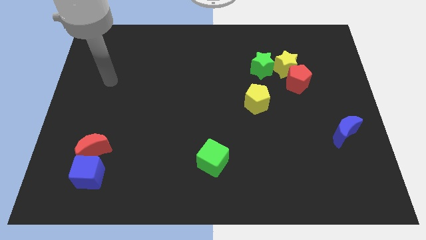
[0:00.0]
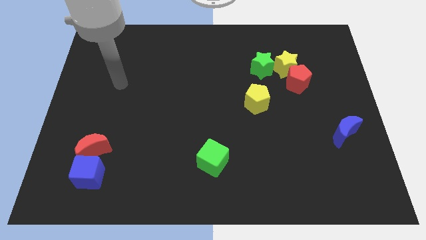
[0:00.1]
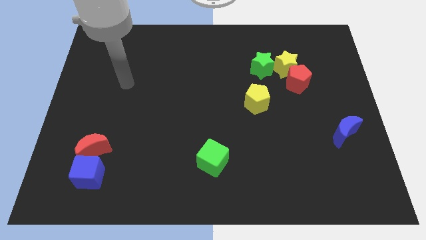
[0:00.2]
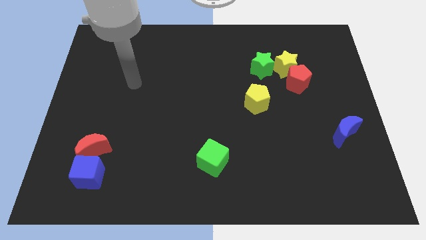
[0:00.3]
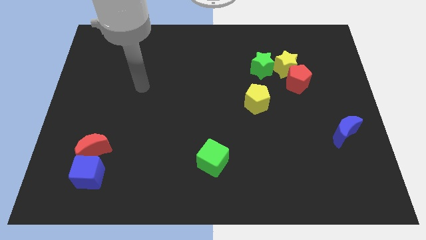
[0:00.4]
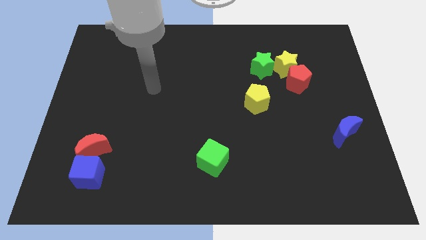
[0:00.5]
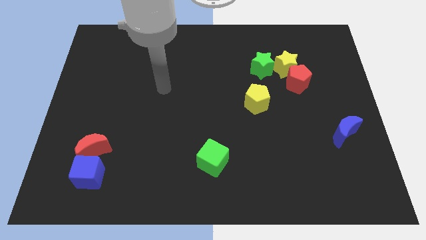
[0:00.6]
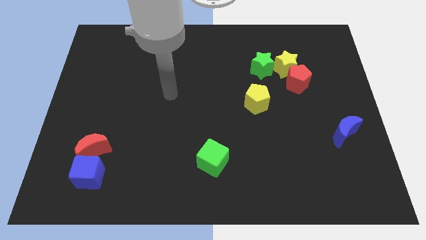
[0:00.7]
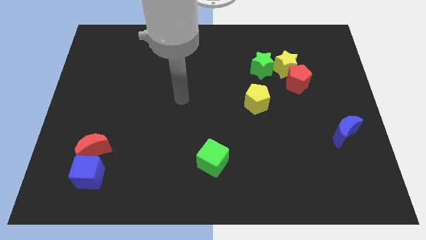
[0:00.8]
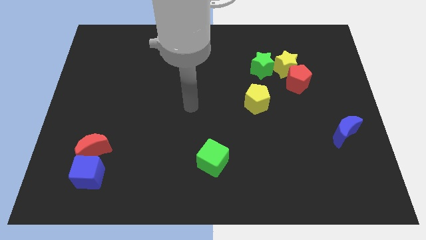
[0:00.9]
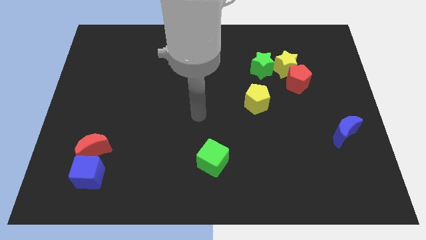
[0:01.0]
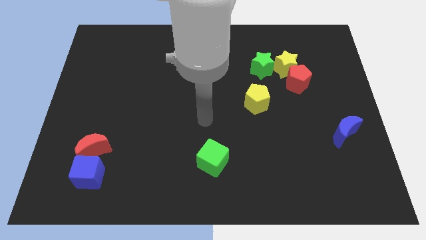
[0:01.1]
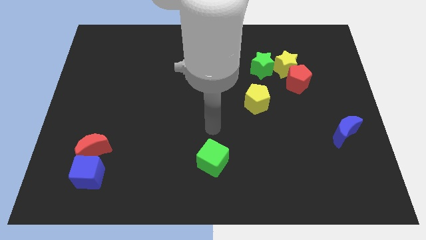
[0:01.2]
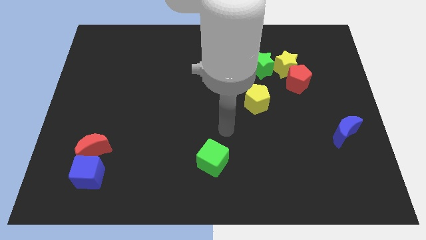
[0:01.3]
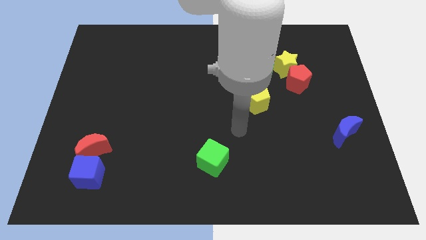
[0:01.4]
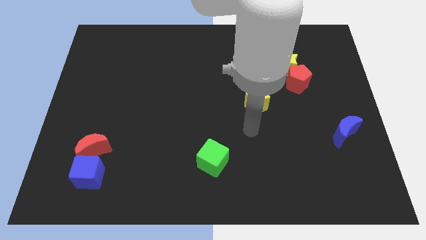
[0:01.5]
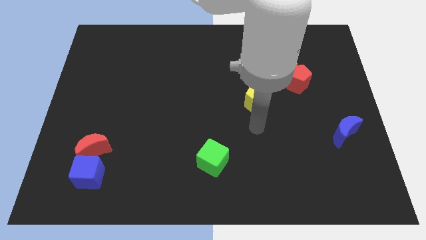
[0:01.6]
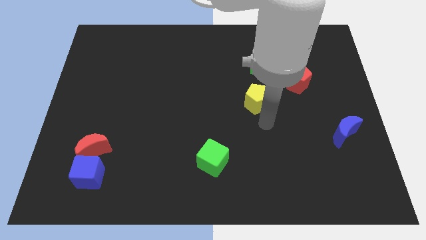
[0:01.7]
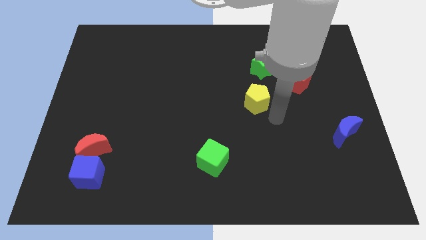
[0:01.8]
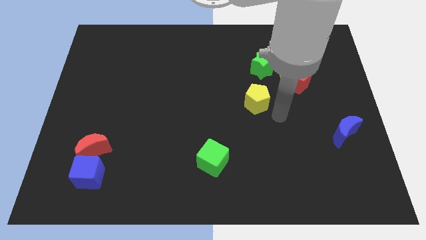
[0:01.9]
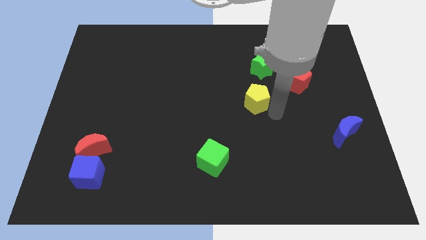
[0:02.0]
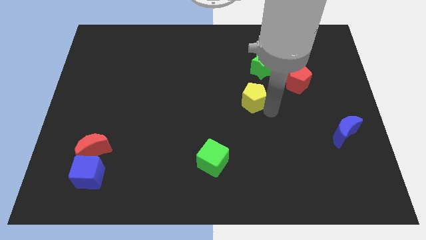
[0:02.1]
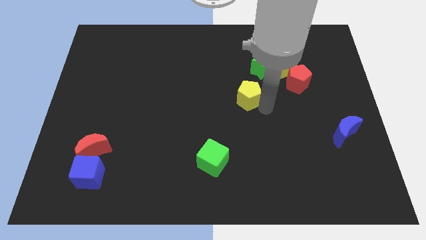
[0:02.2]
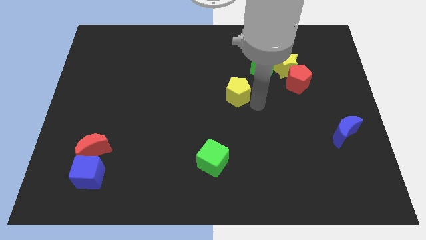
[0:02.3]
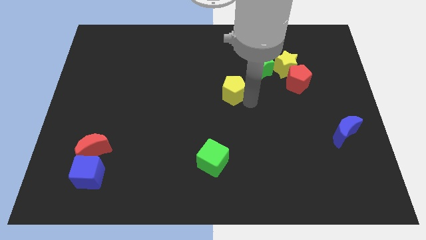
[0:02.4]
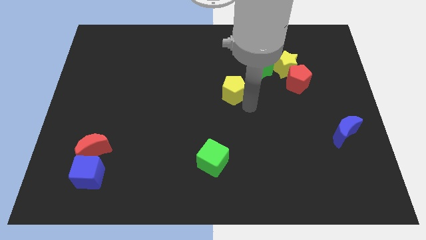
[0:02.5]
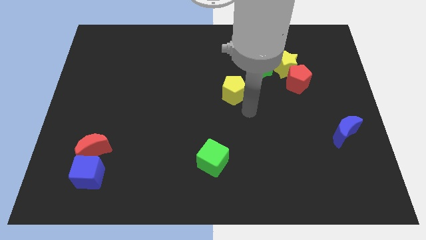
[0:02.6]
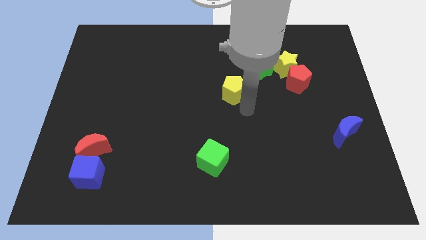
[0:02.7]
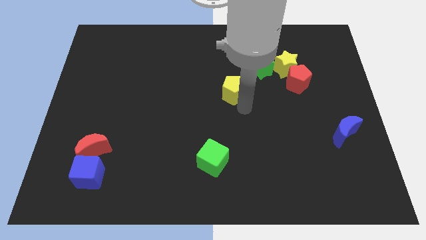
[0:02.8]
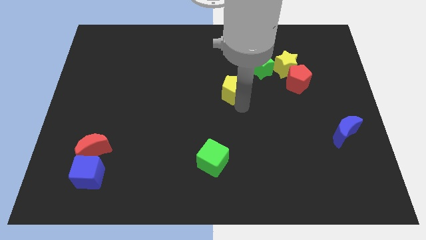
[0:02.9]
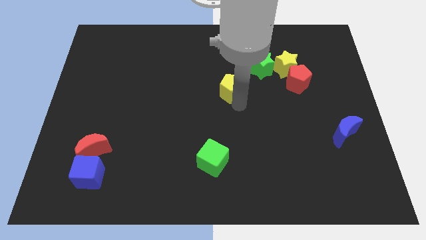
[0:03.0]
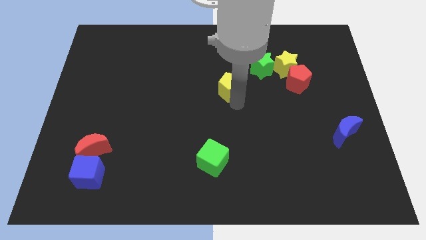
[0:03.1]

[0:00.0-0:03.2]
slightly move the yellow pentagon up and to the left

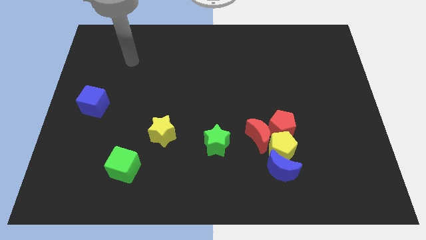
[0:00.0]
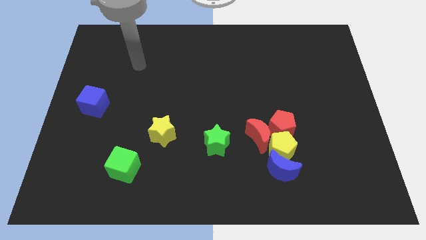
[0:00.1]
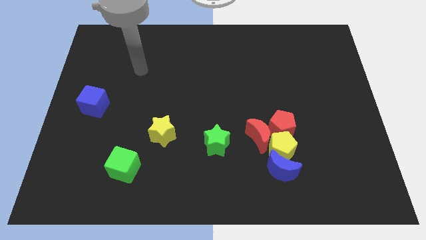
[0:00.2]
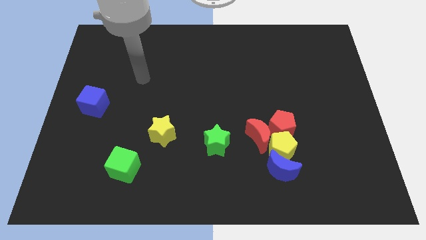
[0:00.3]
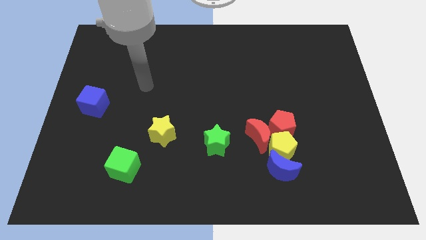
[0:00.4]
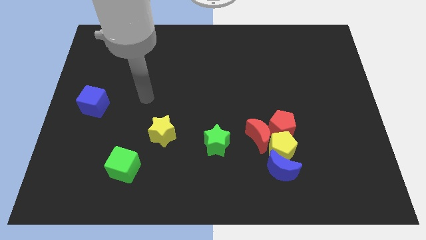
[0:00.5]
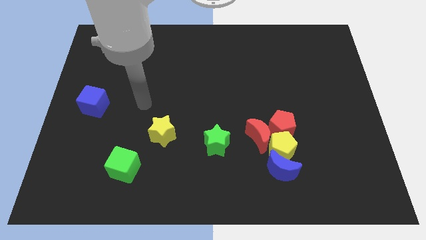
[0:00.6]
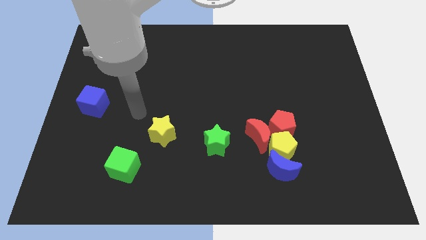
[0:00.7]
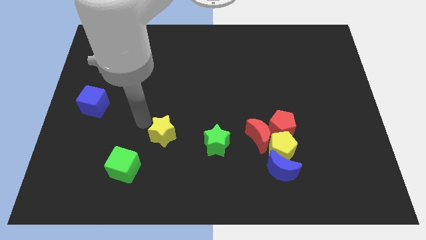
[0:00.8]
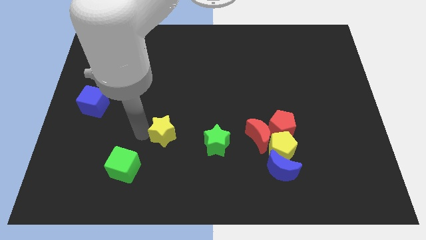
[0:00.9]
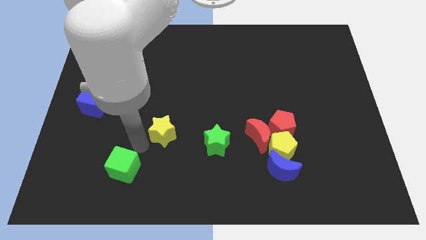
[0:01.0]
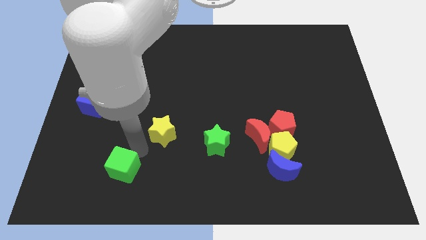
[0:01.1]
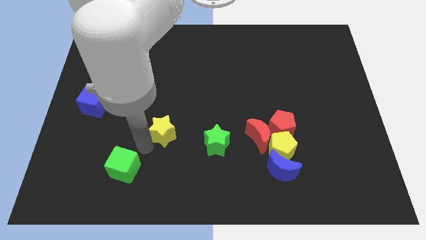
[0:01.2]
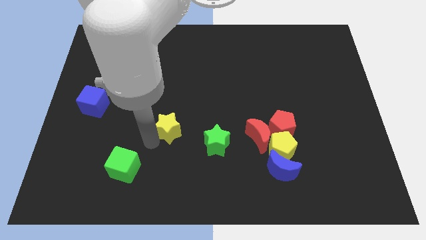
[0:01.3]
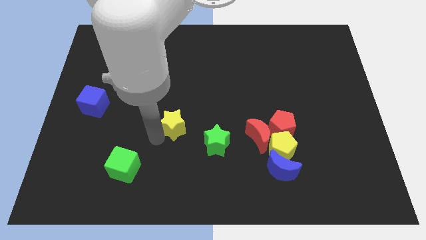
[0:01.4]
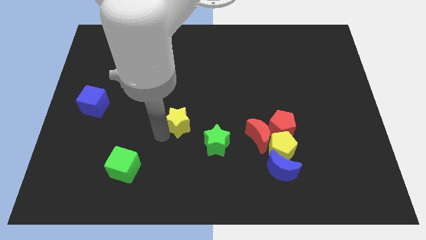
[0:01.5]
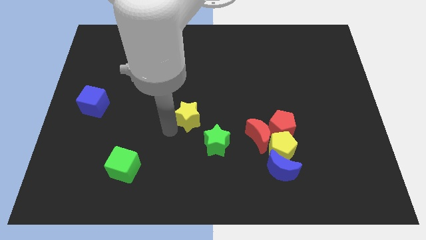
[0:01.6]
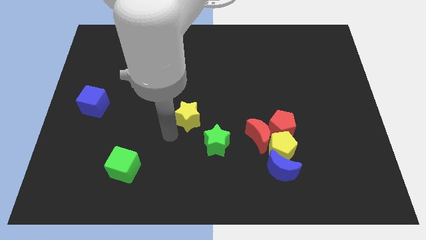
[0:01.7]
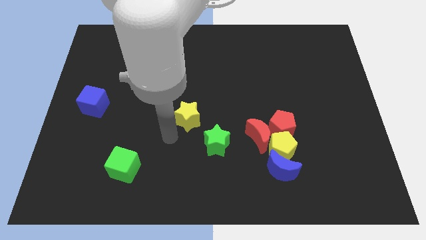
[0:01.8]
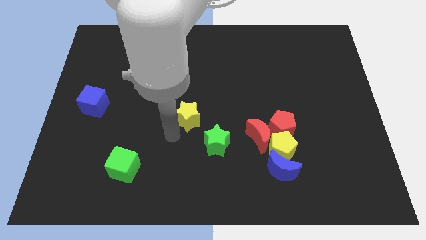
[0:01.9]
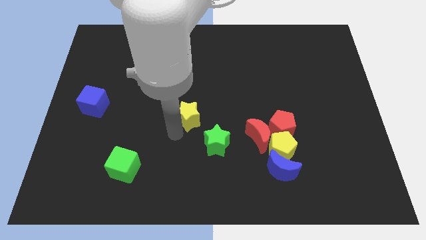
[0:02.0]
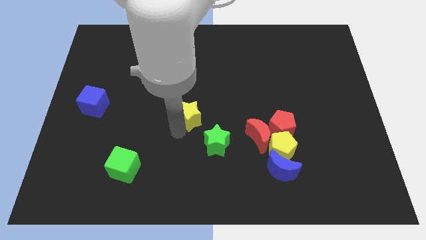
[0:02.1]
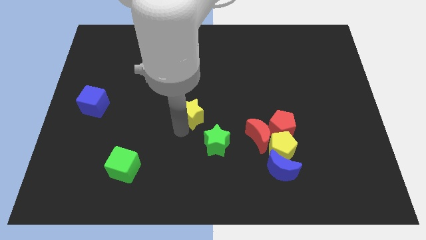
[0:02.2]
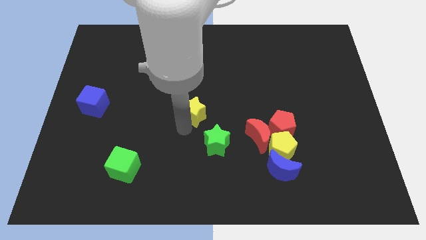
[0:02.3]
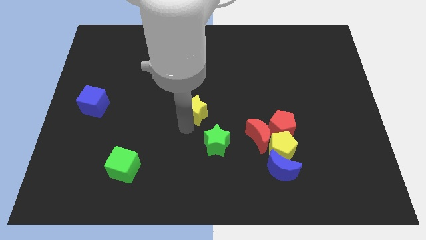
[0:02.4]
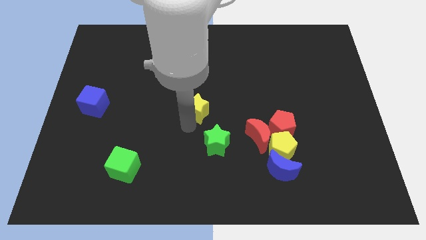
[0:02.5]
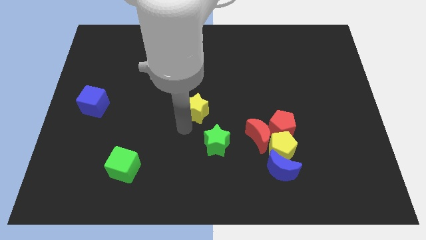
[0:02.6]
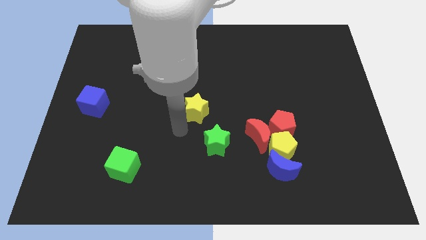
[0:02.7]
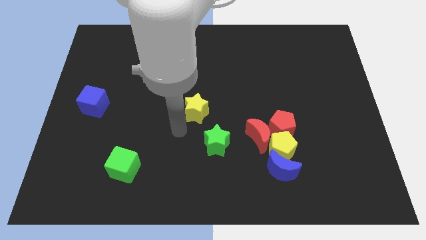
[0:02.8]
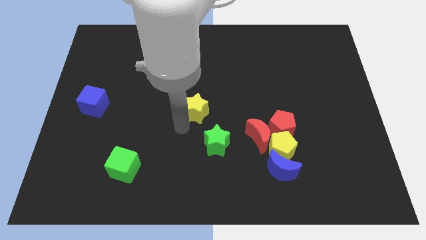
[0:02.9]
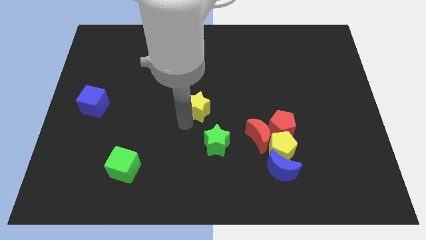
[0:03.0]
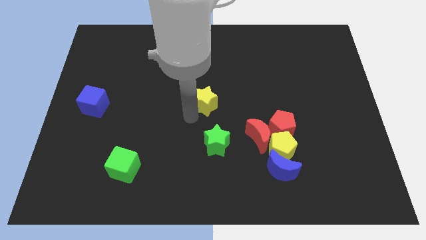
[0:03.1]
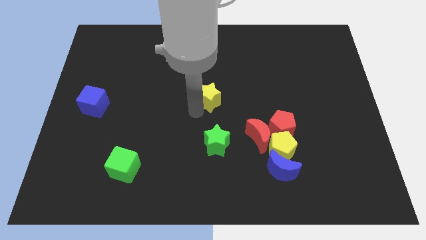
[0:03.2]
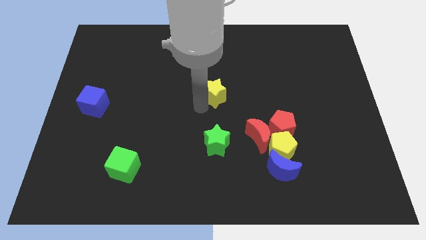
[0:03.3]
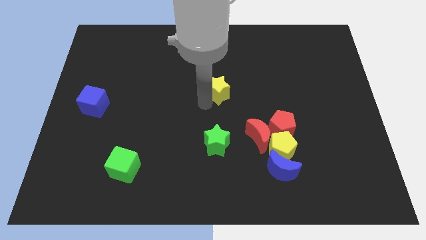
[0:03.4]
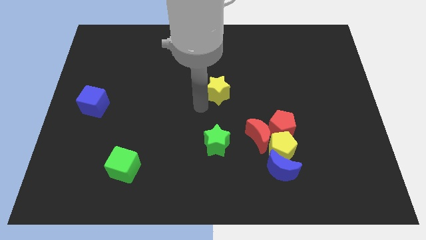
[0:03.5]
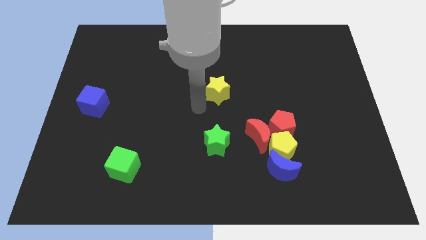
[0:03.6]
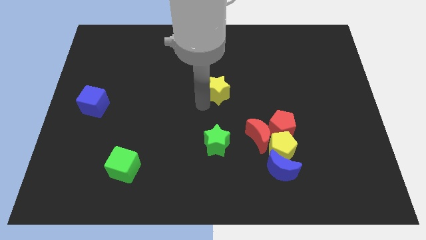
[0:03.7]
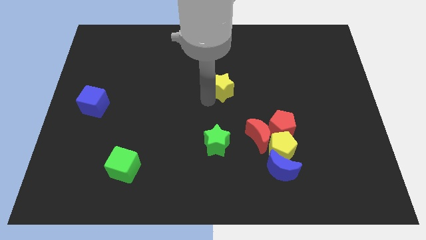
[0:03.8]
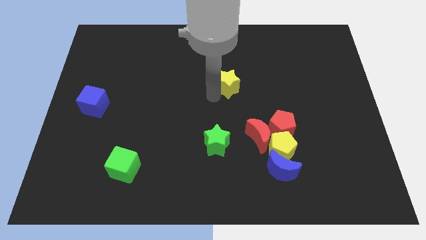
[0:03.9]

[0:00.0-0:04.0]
push the yellow star upwards and then to the right

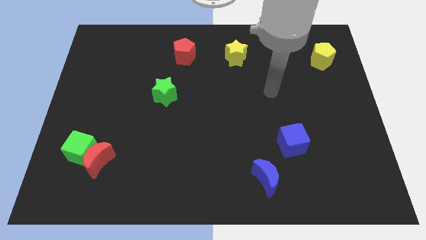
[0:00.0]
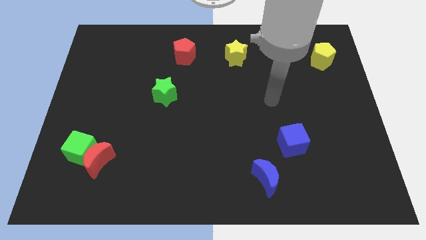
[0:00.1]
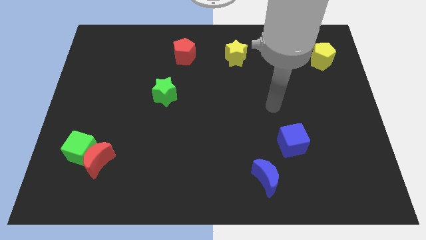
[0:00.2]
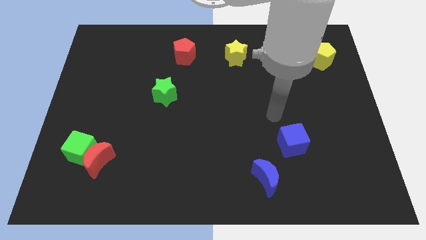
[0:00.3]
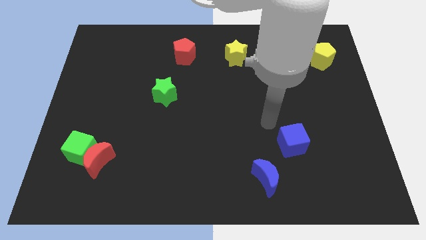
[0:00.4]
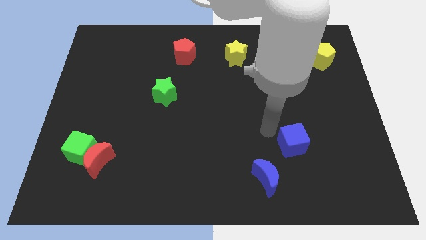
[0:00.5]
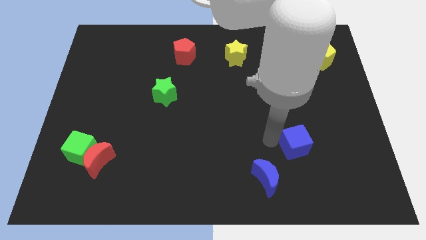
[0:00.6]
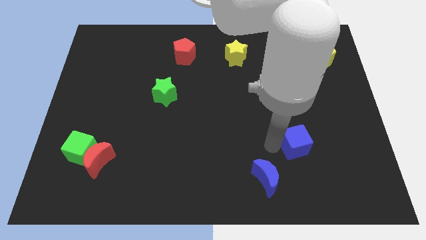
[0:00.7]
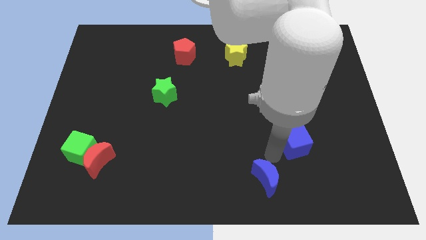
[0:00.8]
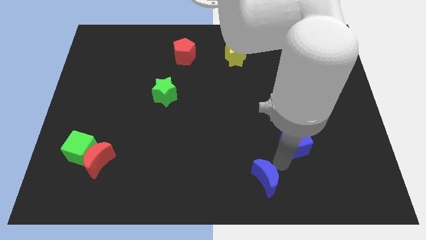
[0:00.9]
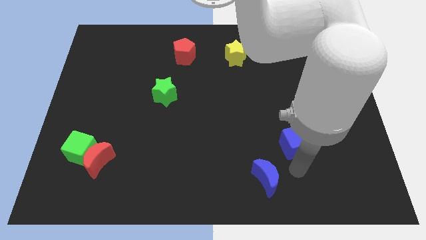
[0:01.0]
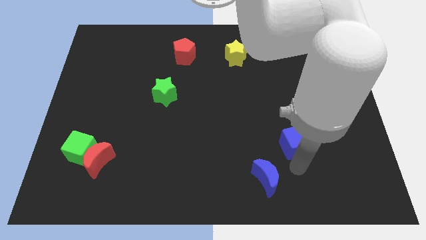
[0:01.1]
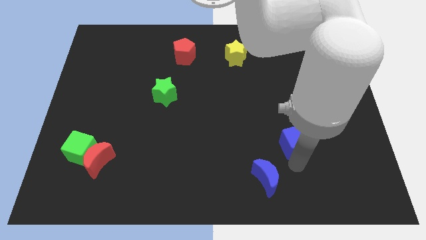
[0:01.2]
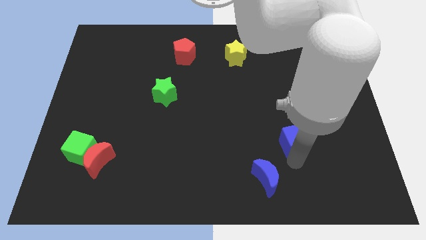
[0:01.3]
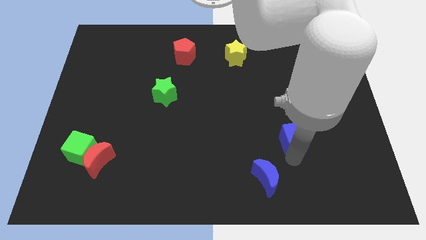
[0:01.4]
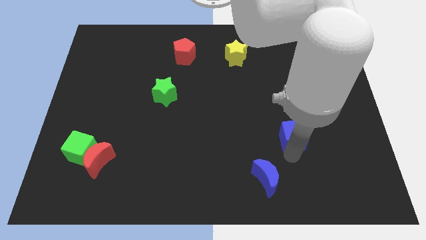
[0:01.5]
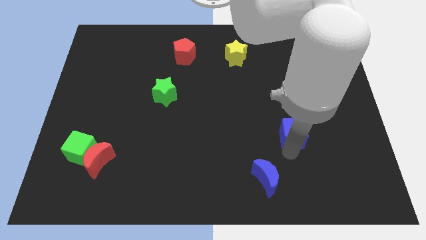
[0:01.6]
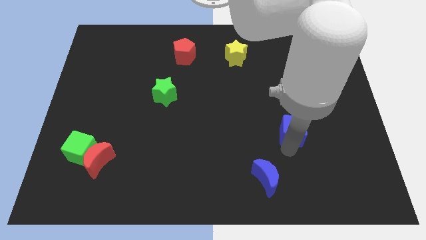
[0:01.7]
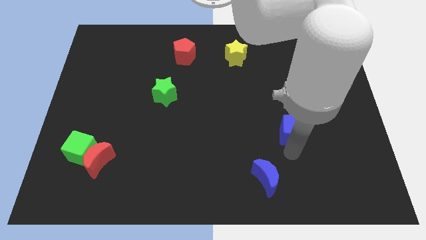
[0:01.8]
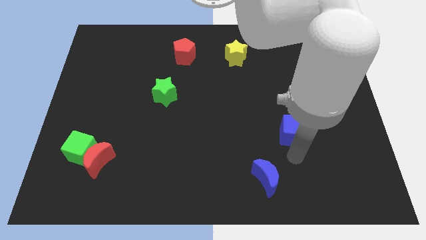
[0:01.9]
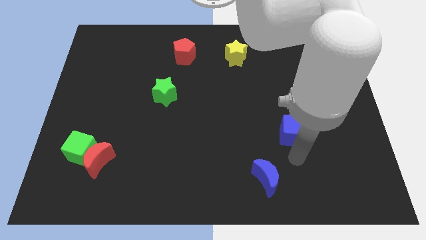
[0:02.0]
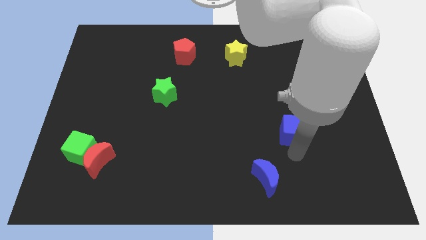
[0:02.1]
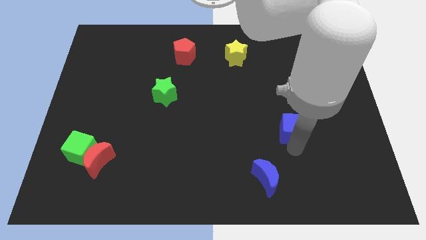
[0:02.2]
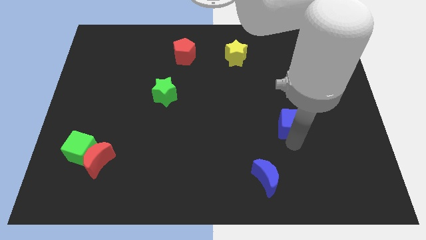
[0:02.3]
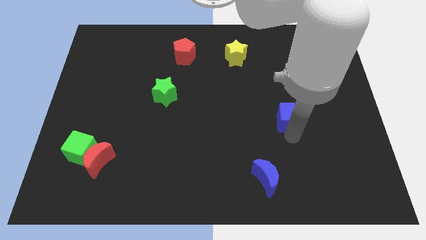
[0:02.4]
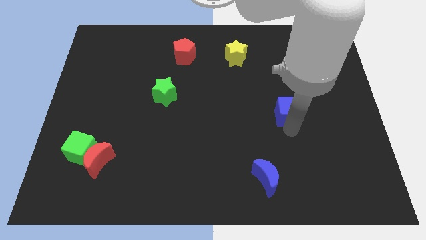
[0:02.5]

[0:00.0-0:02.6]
slide the blue cube upwards a bit
